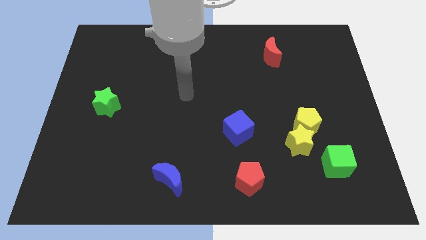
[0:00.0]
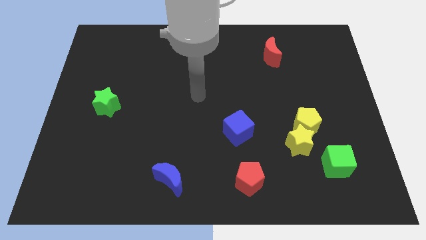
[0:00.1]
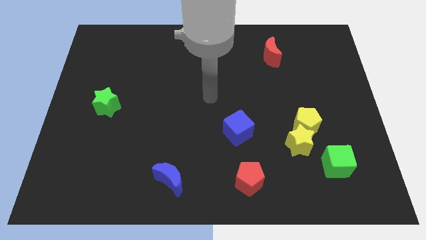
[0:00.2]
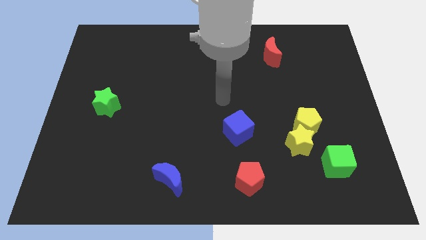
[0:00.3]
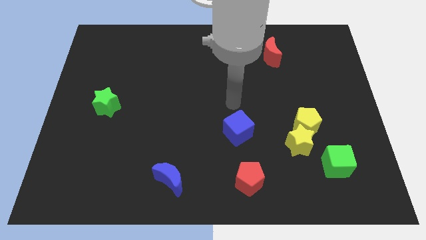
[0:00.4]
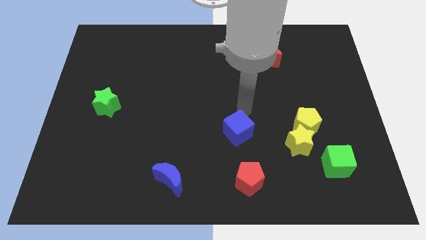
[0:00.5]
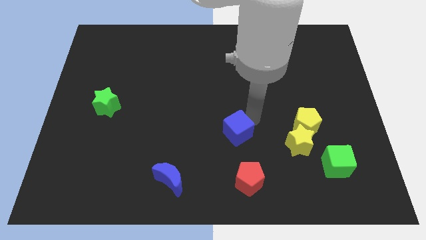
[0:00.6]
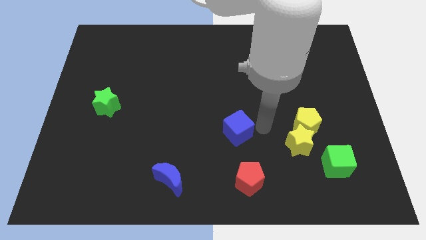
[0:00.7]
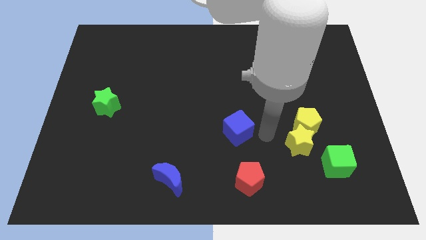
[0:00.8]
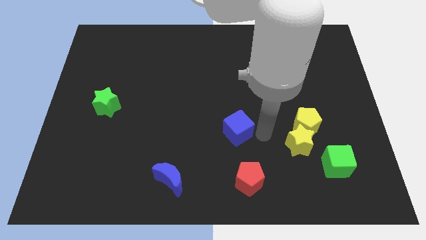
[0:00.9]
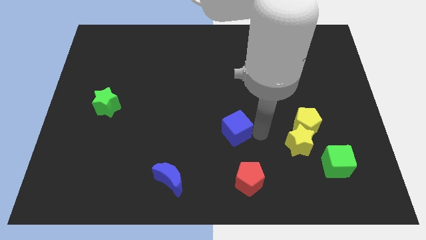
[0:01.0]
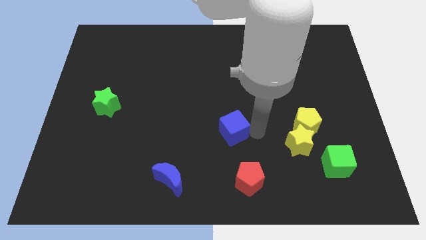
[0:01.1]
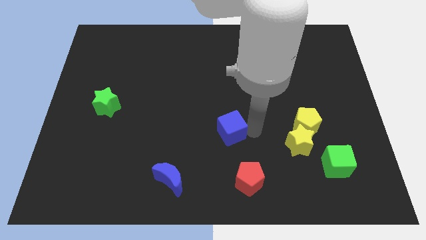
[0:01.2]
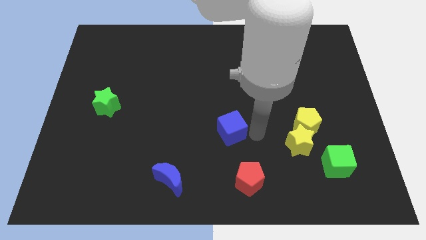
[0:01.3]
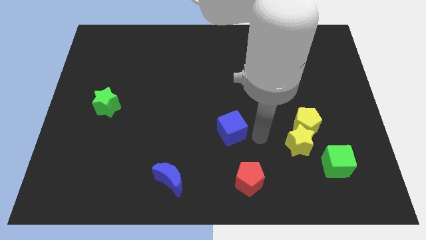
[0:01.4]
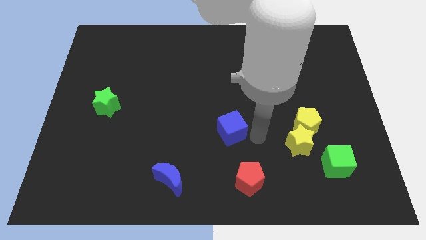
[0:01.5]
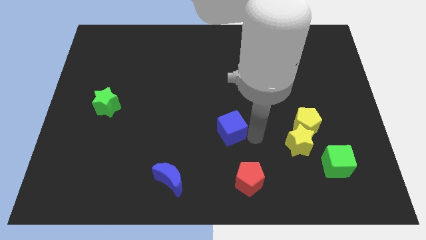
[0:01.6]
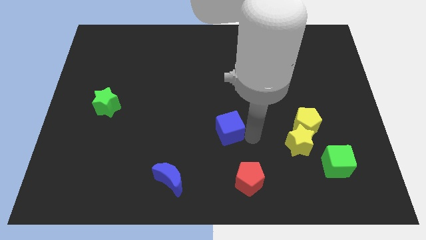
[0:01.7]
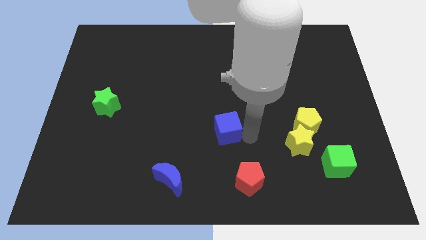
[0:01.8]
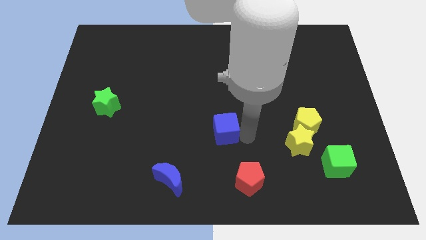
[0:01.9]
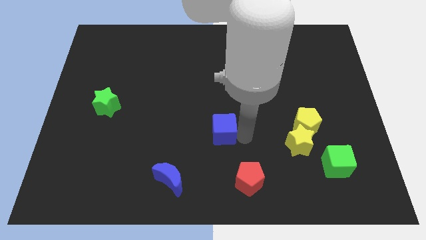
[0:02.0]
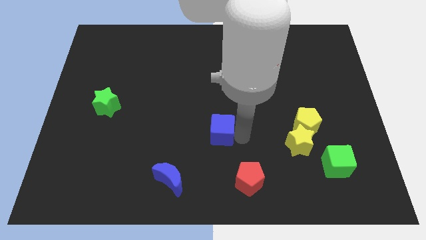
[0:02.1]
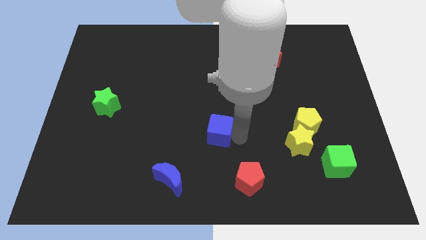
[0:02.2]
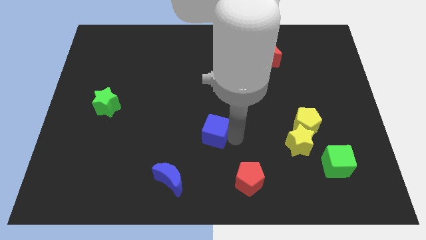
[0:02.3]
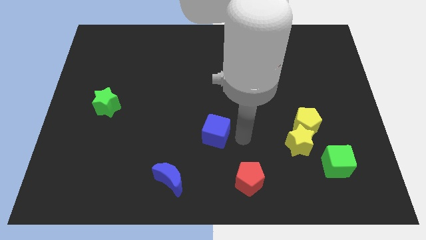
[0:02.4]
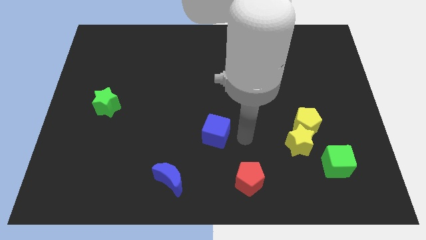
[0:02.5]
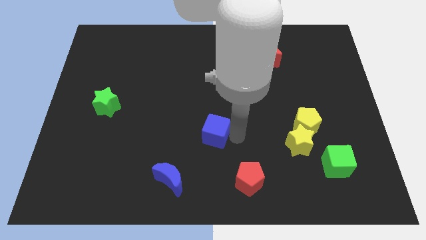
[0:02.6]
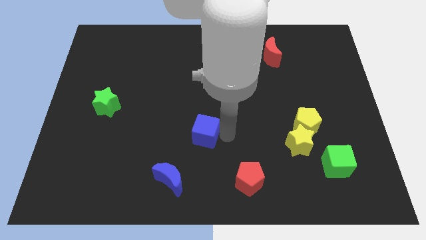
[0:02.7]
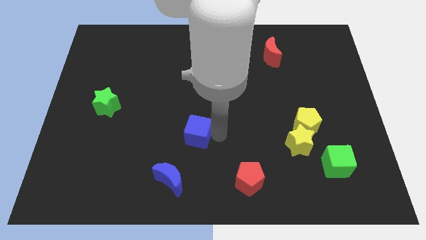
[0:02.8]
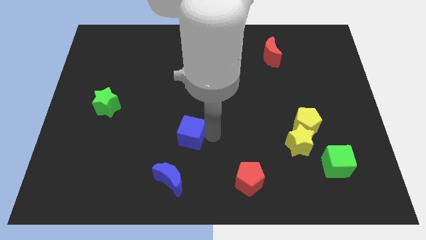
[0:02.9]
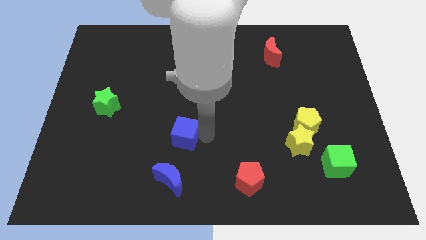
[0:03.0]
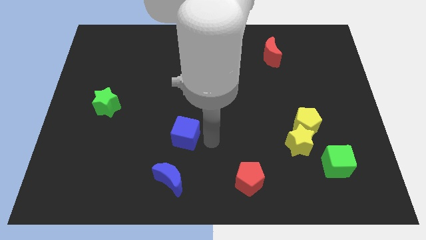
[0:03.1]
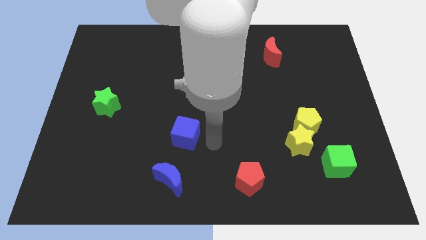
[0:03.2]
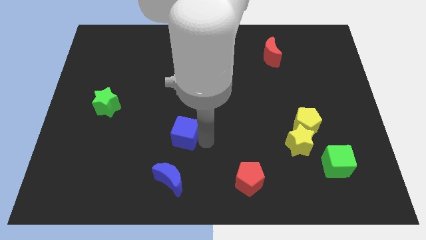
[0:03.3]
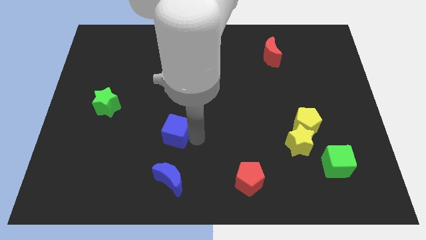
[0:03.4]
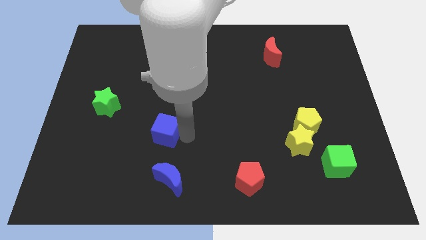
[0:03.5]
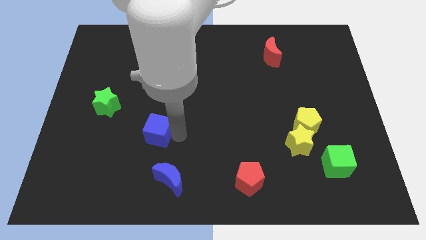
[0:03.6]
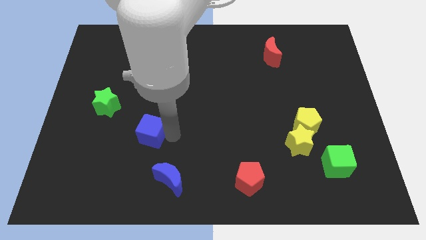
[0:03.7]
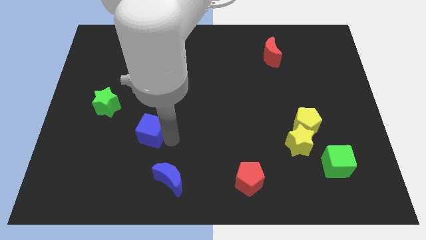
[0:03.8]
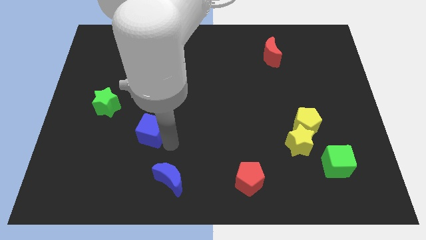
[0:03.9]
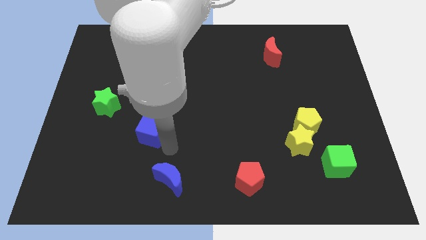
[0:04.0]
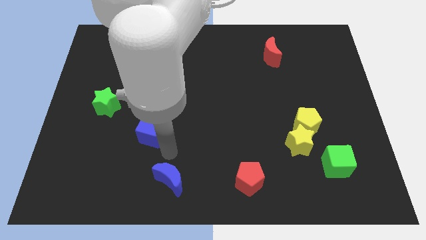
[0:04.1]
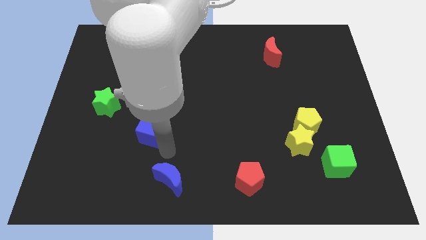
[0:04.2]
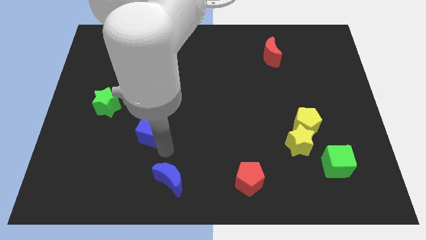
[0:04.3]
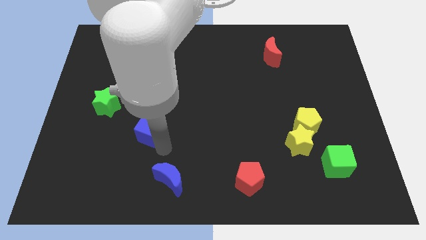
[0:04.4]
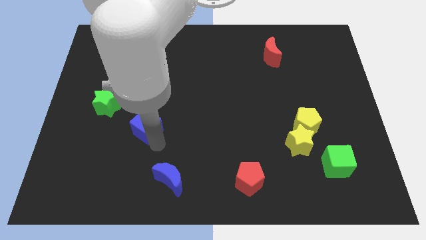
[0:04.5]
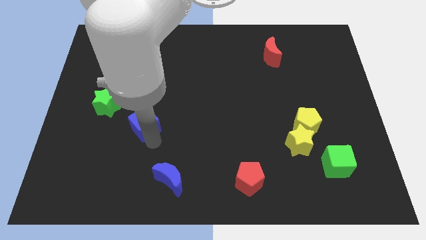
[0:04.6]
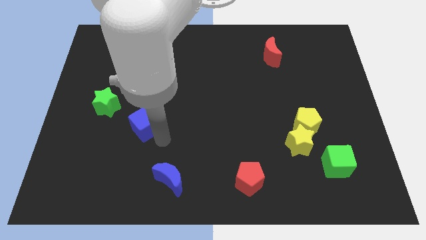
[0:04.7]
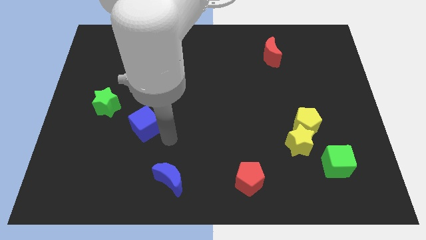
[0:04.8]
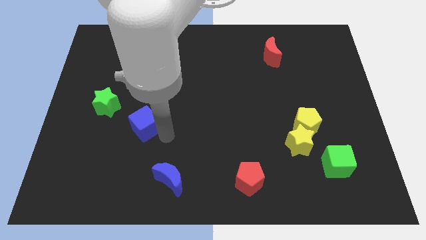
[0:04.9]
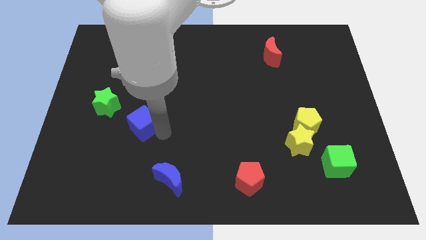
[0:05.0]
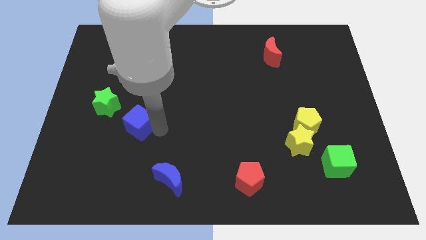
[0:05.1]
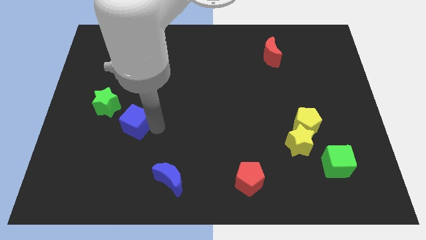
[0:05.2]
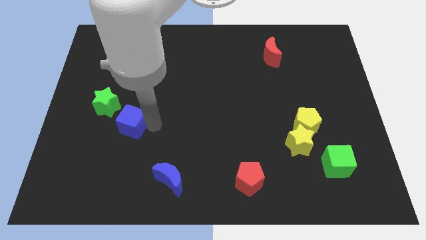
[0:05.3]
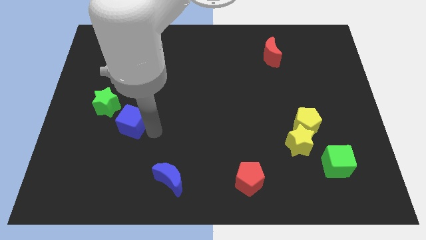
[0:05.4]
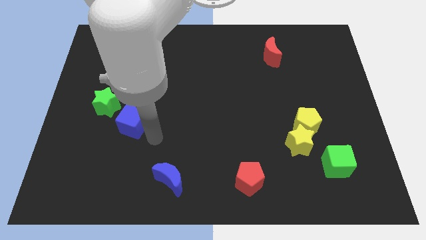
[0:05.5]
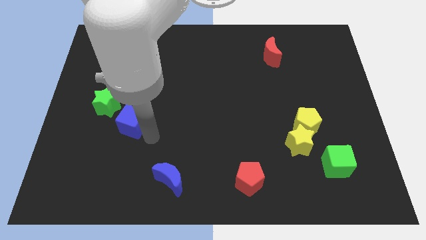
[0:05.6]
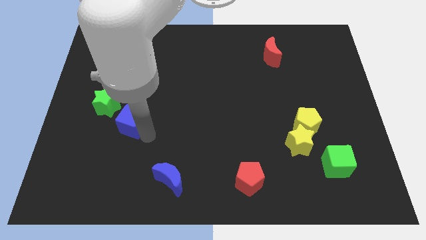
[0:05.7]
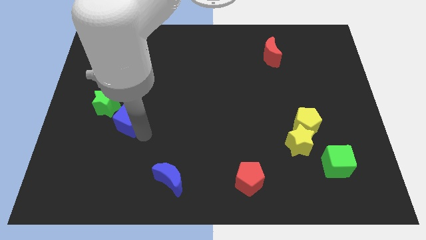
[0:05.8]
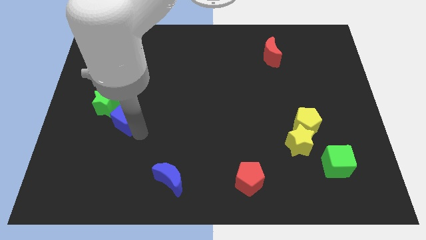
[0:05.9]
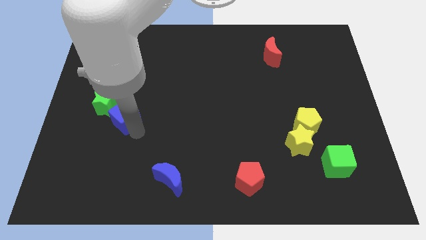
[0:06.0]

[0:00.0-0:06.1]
put the blue cube close to the green star

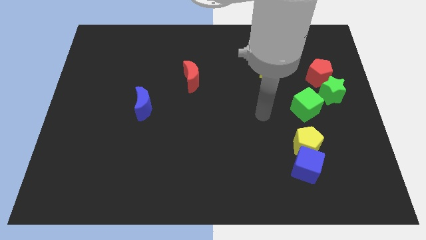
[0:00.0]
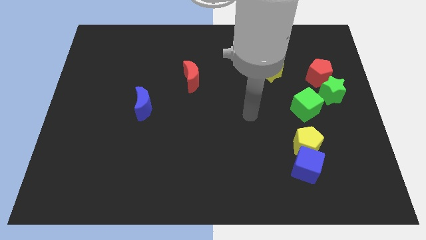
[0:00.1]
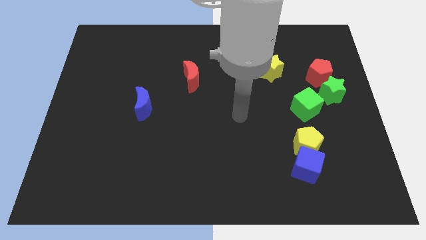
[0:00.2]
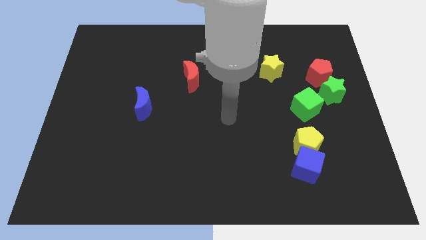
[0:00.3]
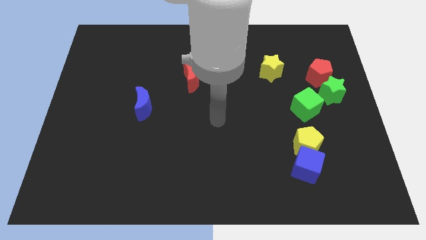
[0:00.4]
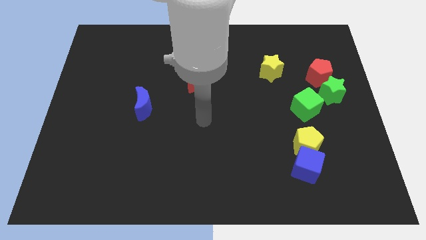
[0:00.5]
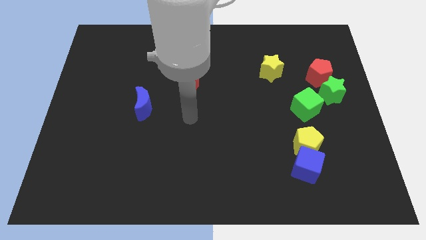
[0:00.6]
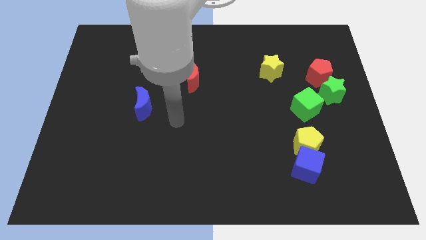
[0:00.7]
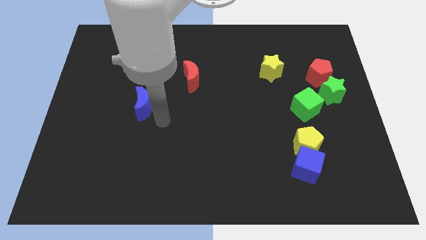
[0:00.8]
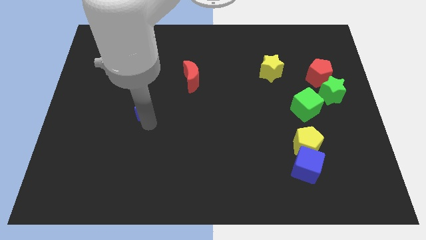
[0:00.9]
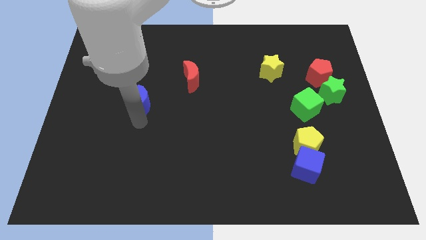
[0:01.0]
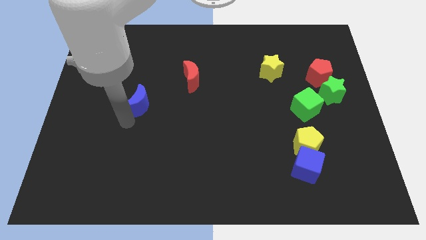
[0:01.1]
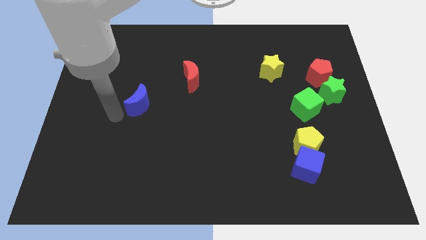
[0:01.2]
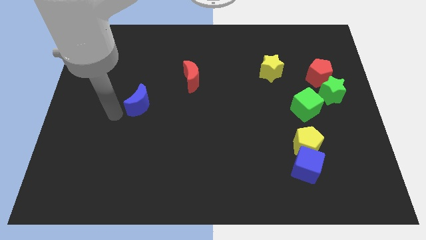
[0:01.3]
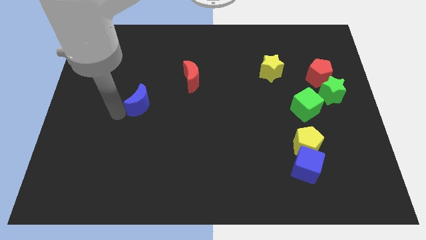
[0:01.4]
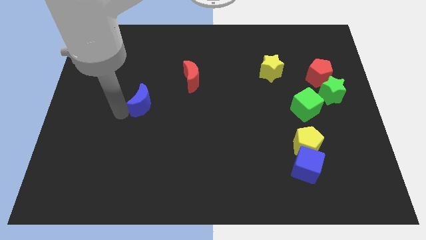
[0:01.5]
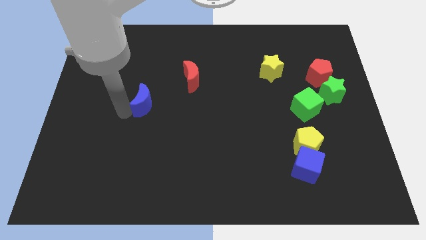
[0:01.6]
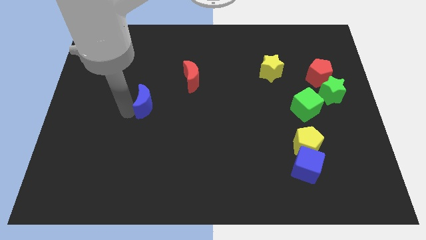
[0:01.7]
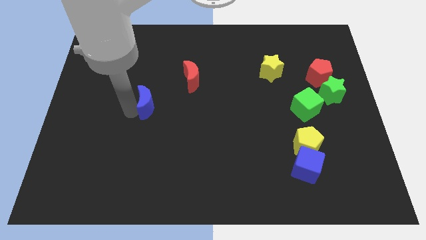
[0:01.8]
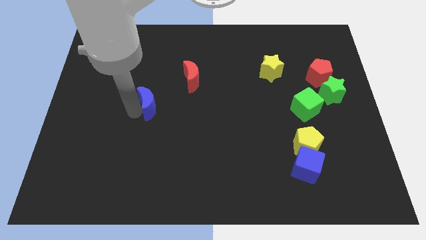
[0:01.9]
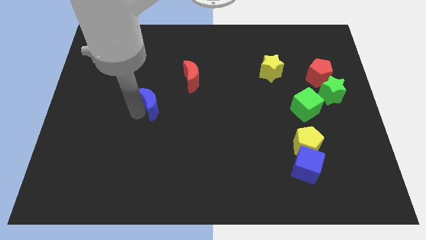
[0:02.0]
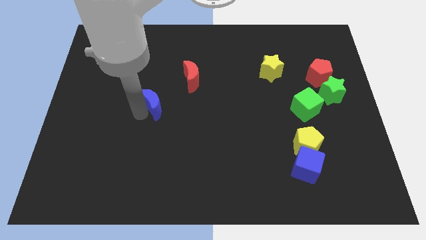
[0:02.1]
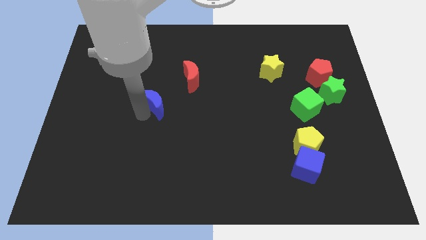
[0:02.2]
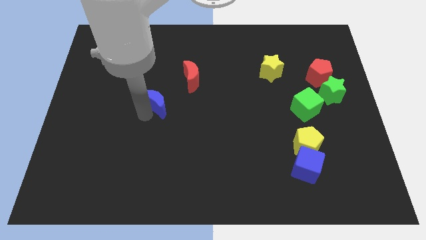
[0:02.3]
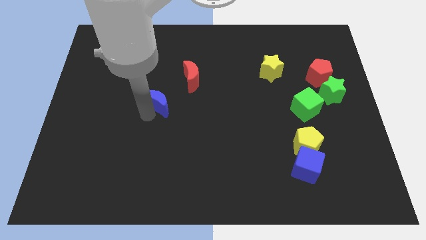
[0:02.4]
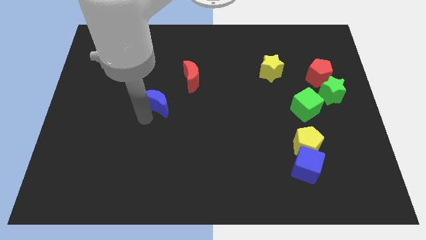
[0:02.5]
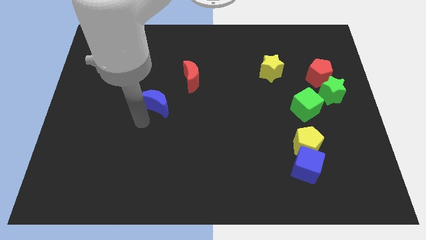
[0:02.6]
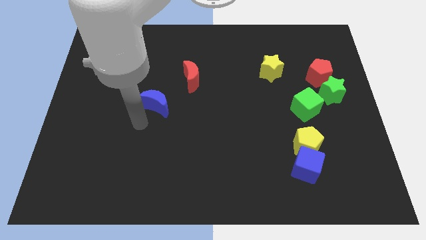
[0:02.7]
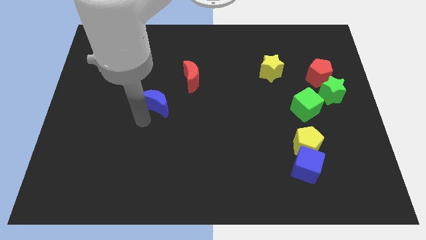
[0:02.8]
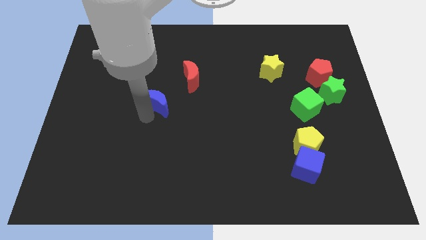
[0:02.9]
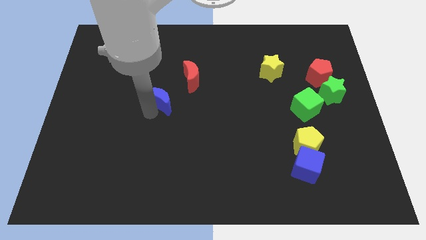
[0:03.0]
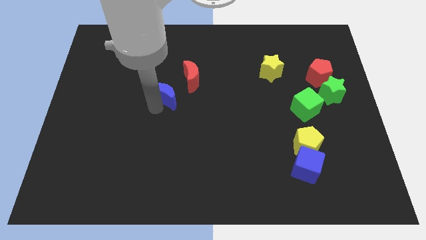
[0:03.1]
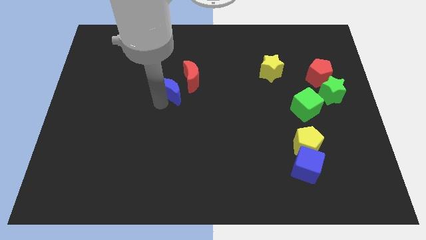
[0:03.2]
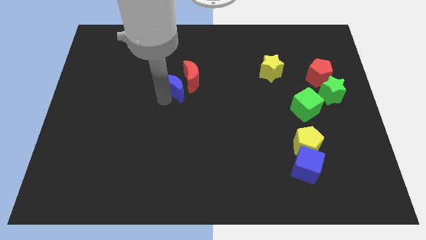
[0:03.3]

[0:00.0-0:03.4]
slide the blue moon next to the red moon
